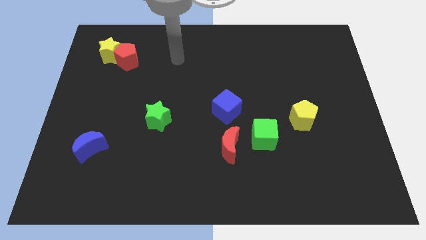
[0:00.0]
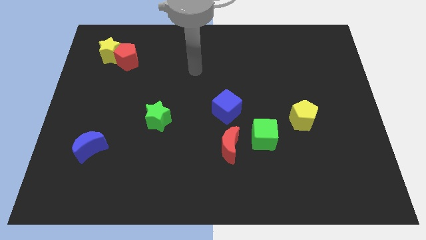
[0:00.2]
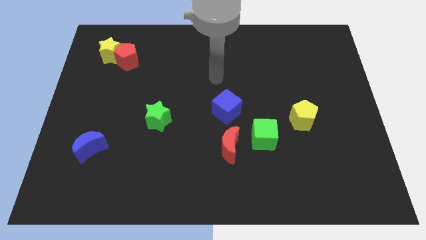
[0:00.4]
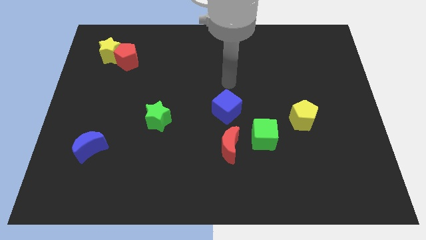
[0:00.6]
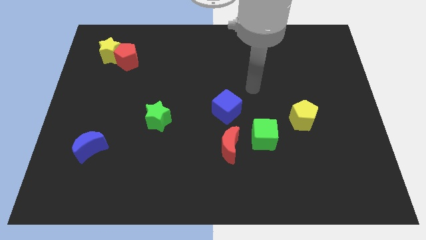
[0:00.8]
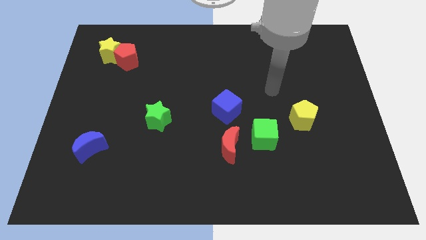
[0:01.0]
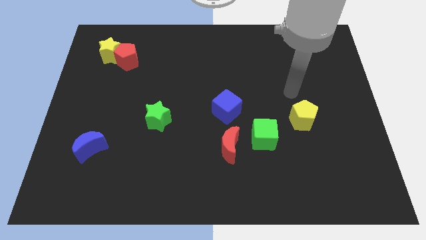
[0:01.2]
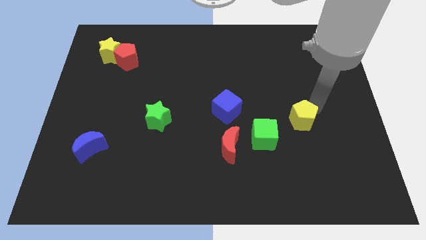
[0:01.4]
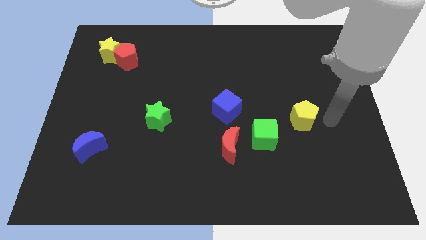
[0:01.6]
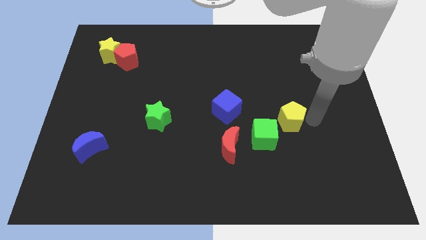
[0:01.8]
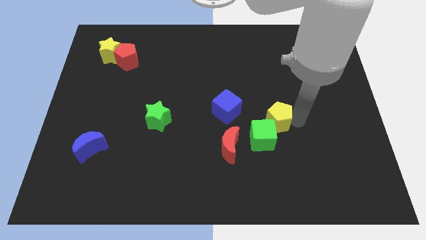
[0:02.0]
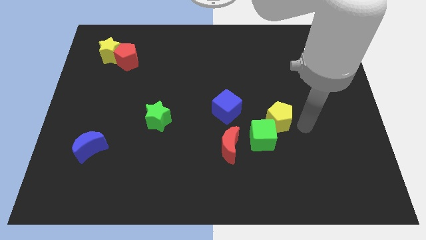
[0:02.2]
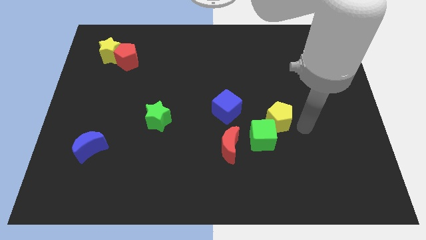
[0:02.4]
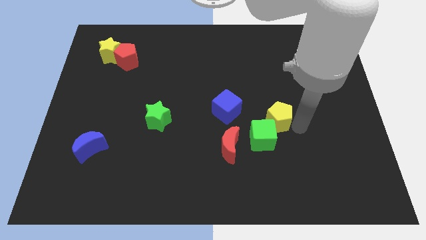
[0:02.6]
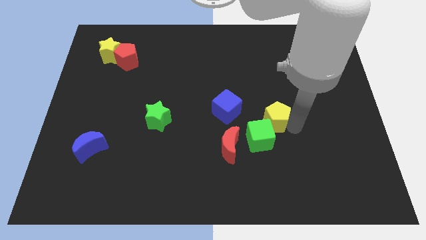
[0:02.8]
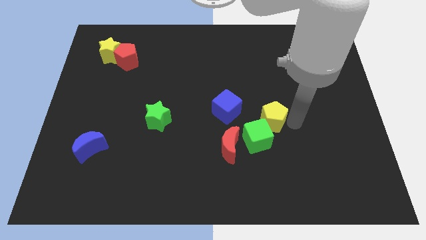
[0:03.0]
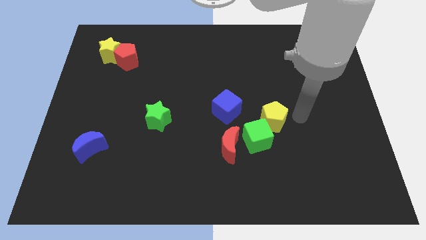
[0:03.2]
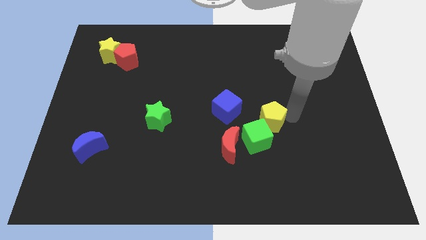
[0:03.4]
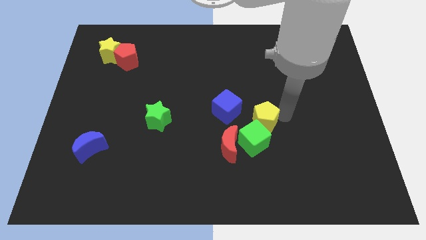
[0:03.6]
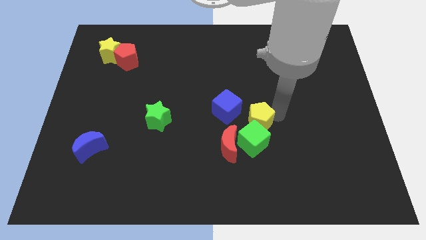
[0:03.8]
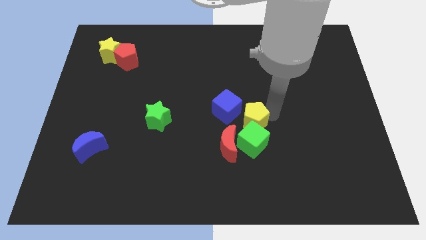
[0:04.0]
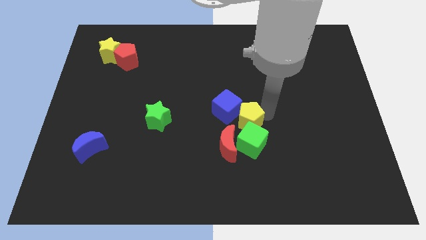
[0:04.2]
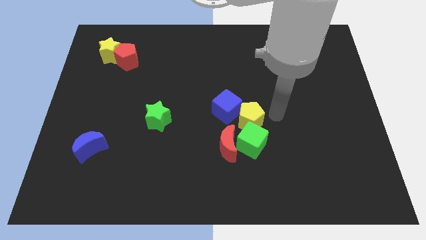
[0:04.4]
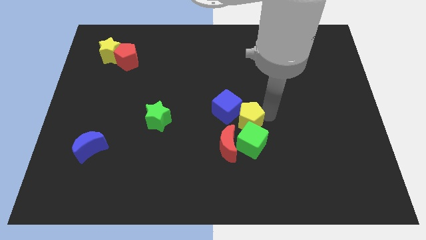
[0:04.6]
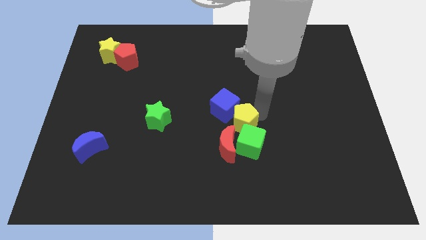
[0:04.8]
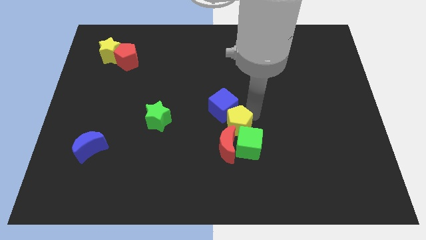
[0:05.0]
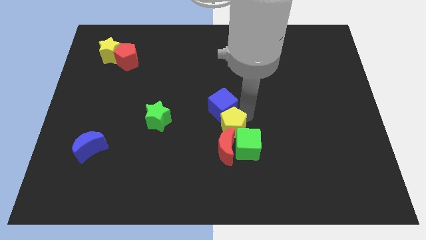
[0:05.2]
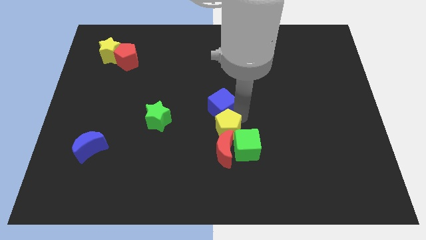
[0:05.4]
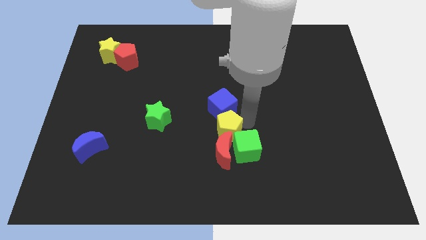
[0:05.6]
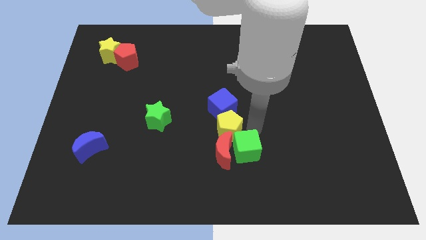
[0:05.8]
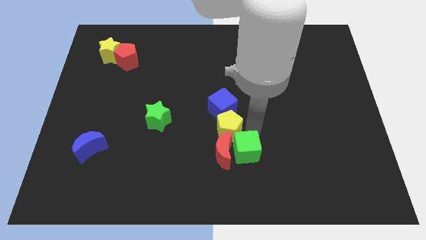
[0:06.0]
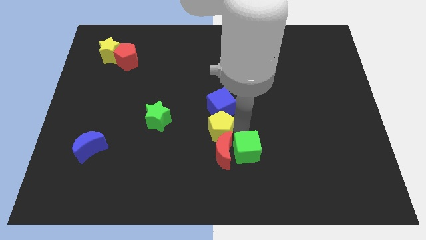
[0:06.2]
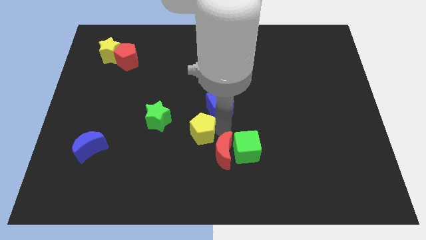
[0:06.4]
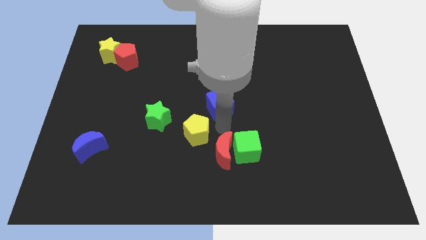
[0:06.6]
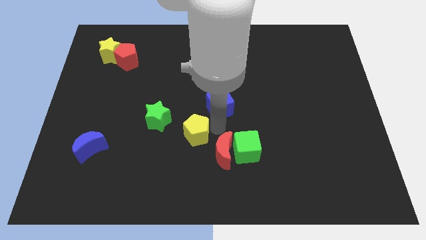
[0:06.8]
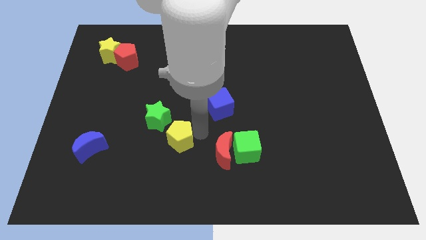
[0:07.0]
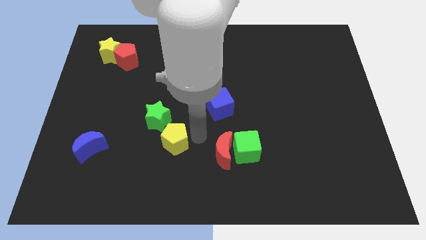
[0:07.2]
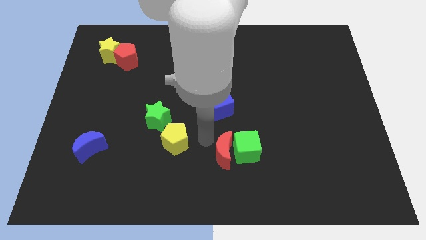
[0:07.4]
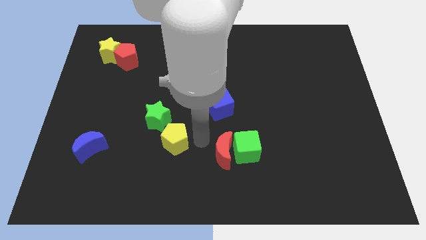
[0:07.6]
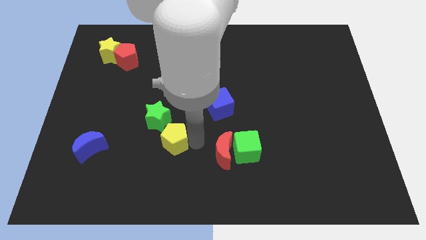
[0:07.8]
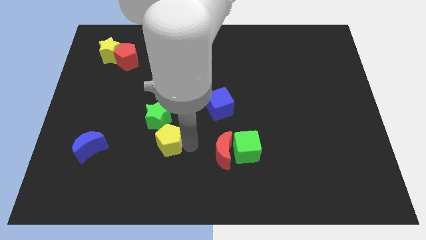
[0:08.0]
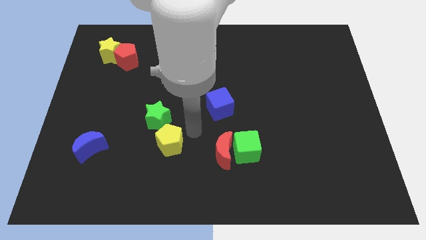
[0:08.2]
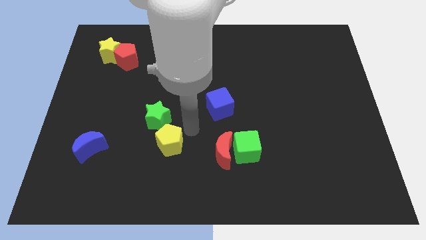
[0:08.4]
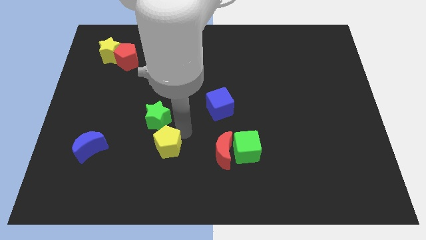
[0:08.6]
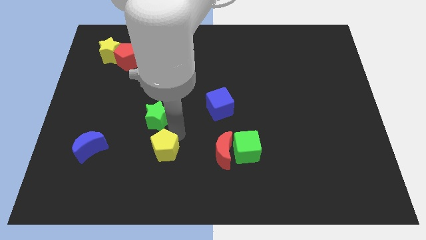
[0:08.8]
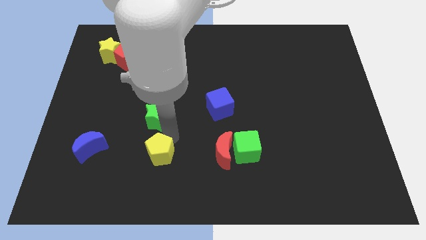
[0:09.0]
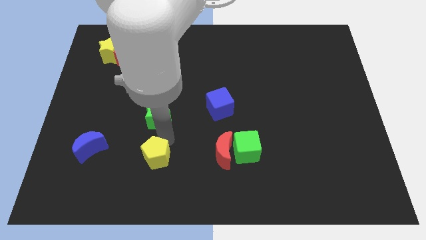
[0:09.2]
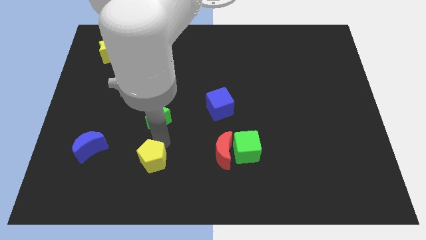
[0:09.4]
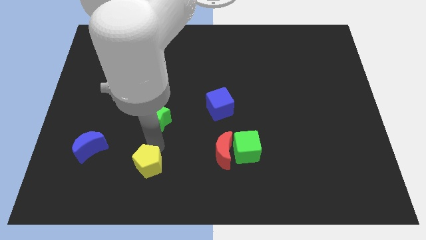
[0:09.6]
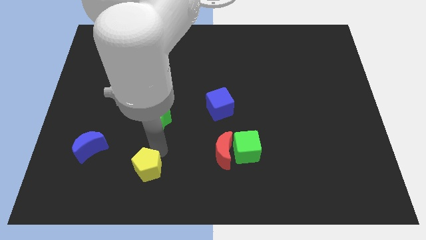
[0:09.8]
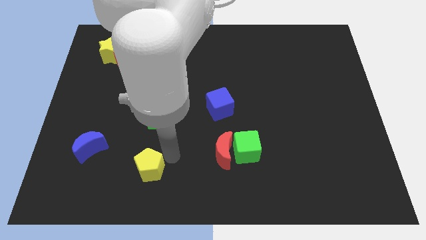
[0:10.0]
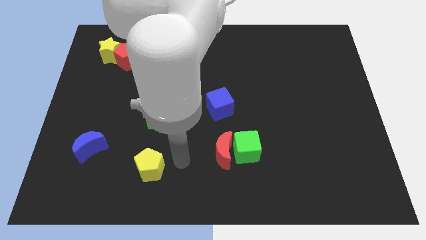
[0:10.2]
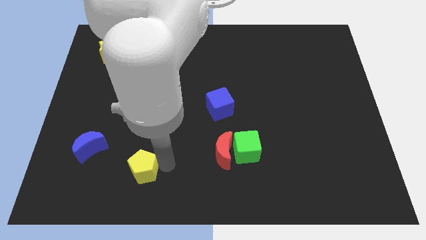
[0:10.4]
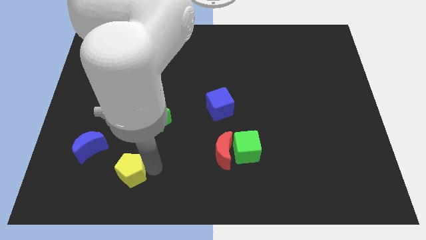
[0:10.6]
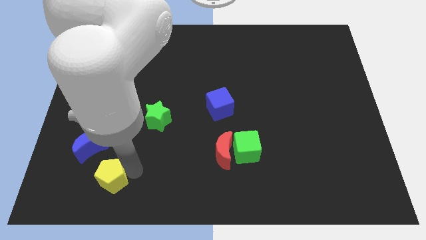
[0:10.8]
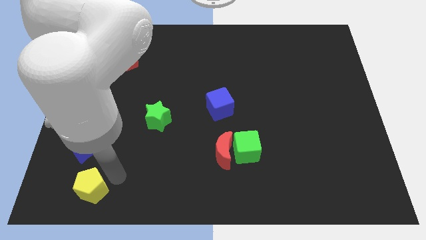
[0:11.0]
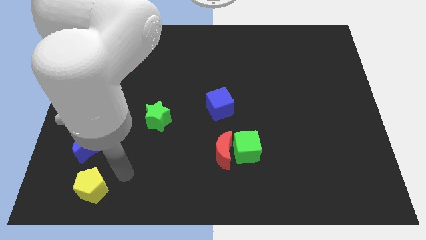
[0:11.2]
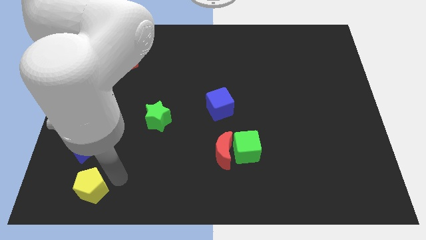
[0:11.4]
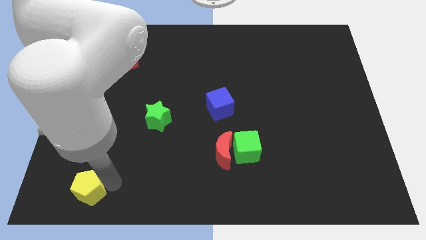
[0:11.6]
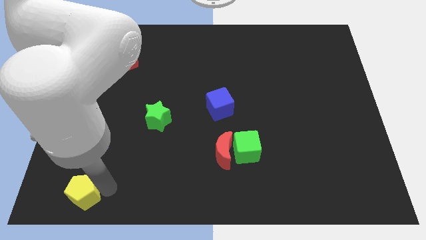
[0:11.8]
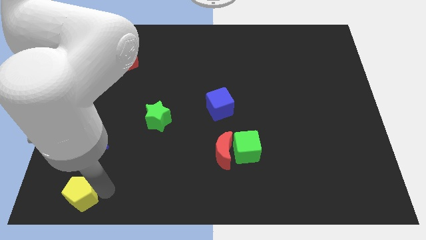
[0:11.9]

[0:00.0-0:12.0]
push the yellow pentagon to the bottom left of the board
